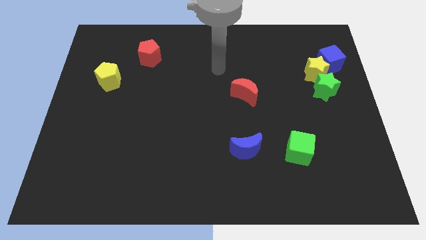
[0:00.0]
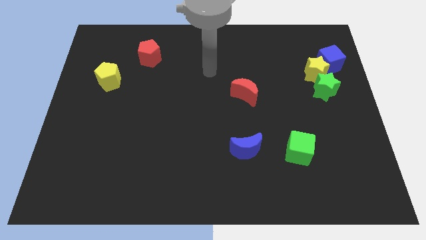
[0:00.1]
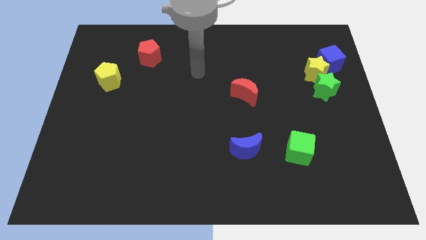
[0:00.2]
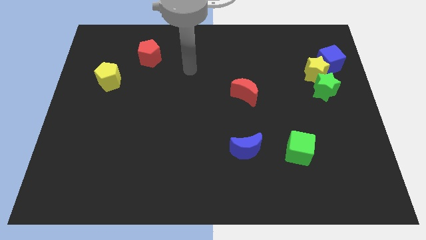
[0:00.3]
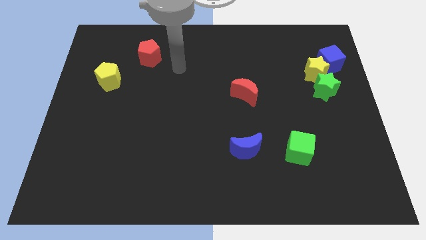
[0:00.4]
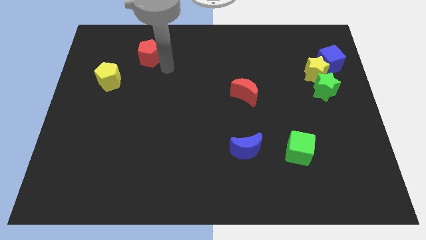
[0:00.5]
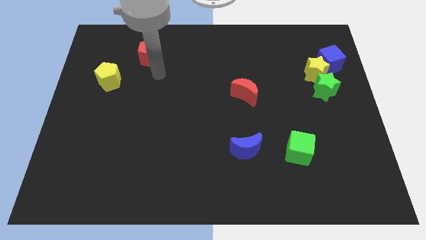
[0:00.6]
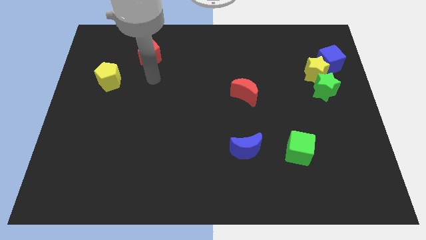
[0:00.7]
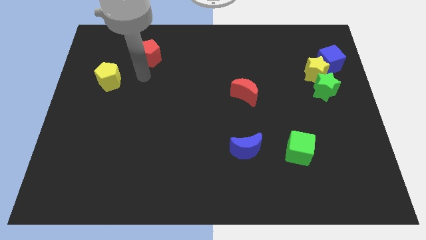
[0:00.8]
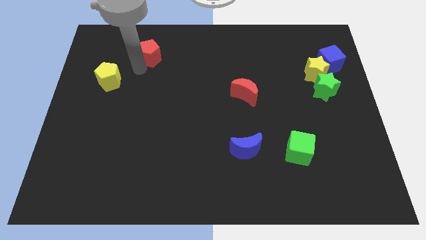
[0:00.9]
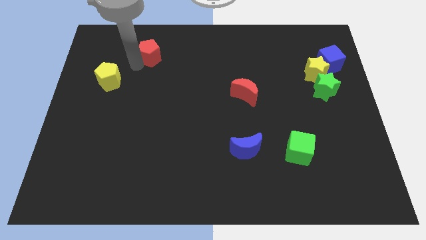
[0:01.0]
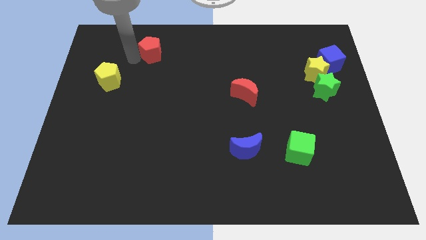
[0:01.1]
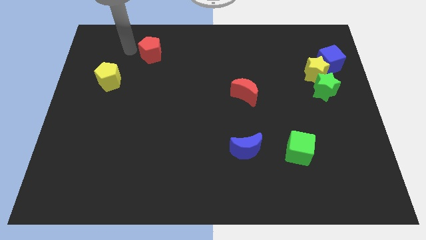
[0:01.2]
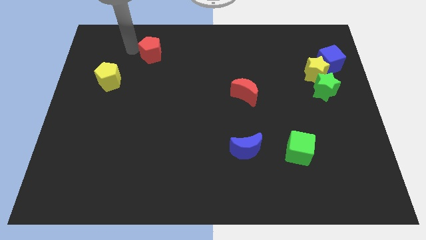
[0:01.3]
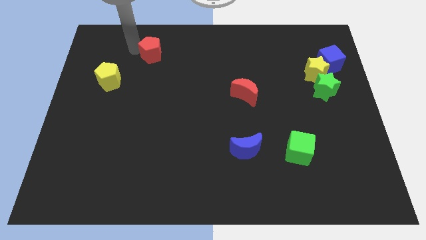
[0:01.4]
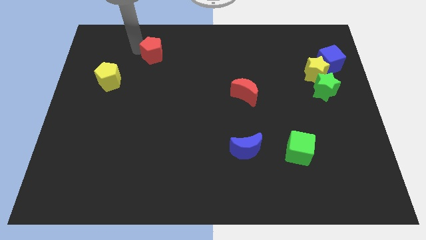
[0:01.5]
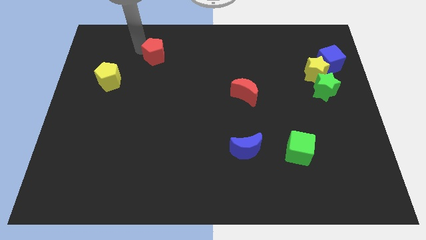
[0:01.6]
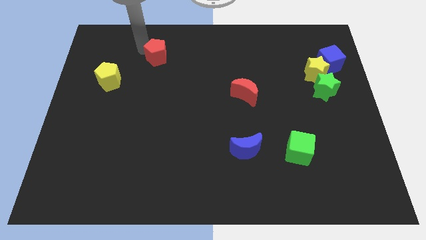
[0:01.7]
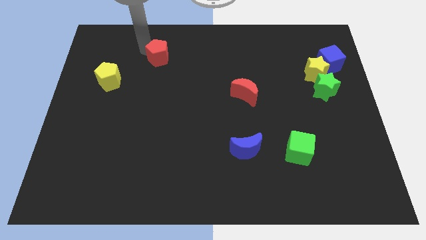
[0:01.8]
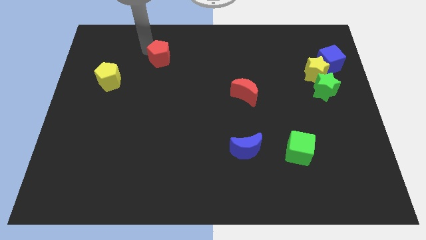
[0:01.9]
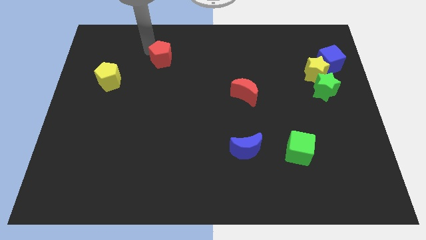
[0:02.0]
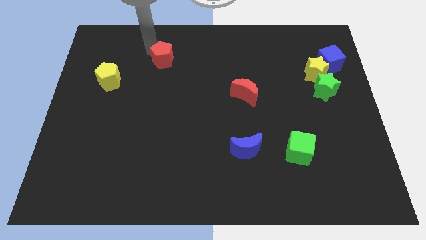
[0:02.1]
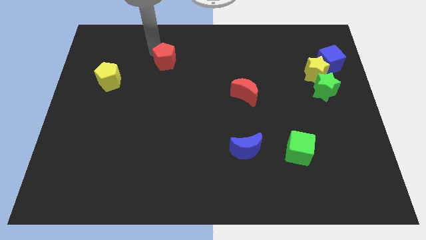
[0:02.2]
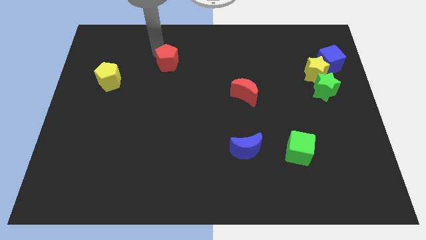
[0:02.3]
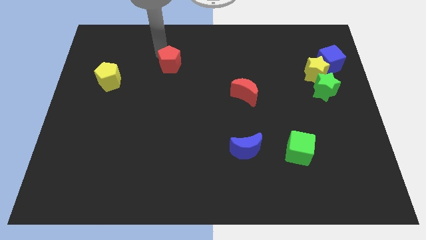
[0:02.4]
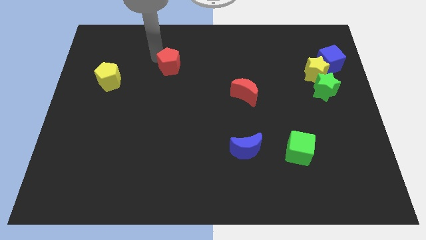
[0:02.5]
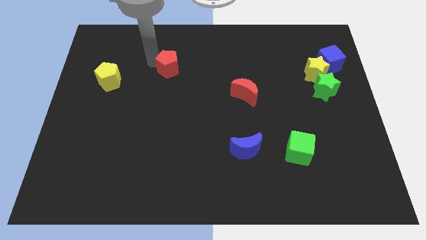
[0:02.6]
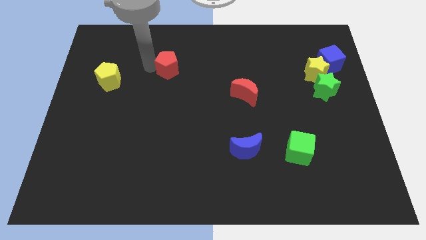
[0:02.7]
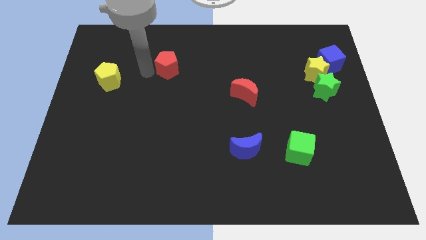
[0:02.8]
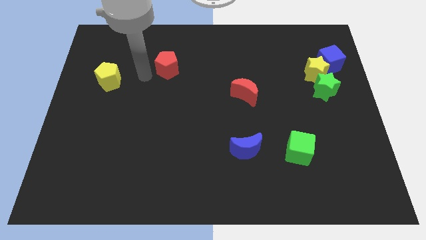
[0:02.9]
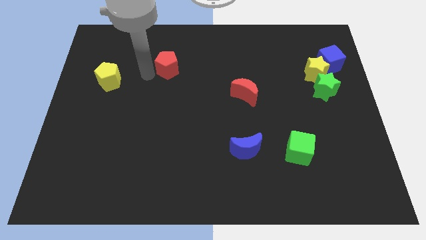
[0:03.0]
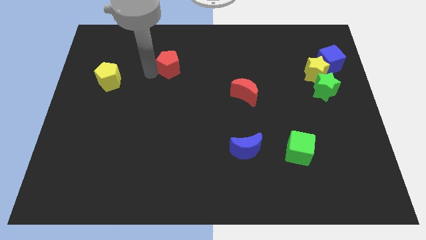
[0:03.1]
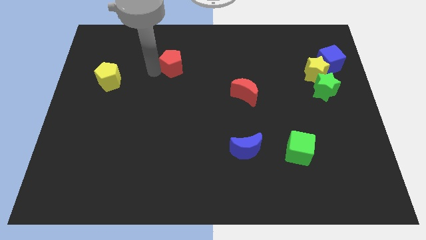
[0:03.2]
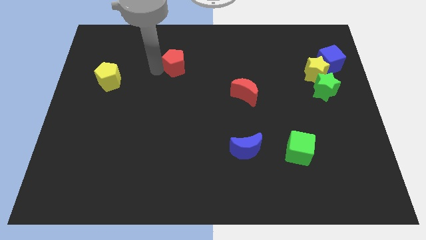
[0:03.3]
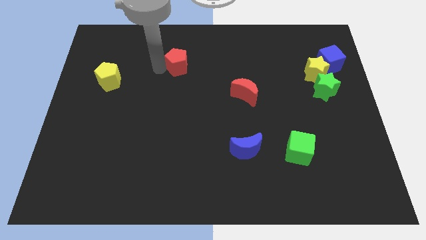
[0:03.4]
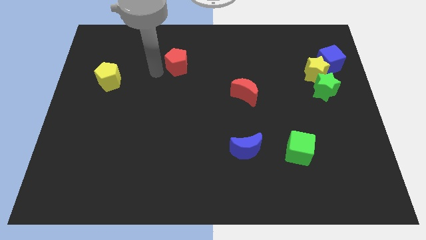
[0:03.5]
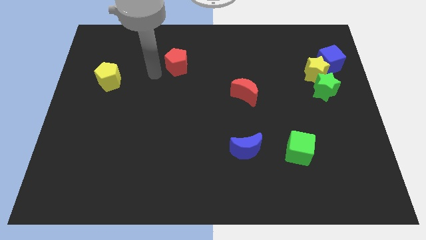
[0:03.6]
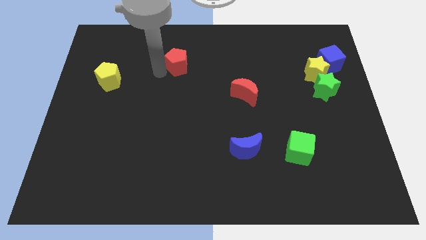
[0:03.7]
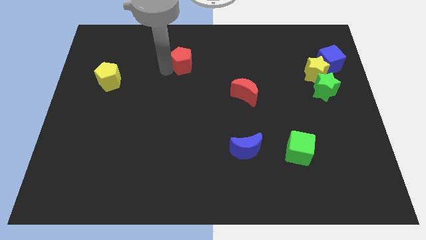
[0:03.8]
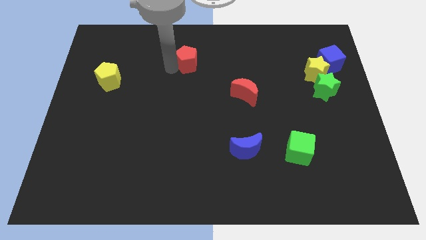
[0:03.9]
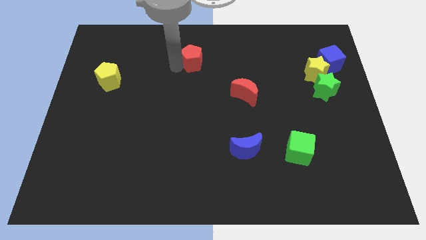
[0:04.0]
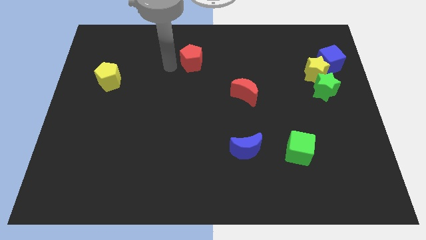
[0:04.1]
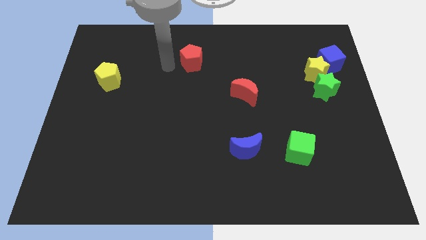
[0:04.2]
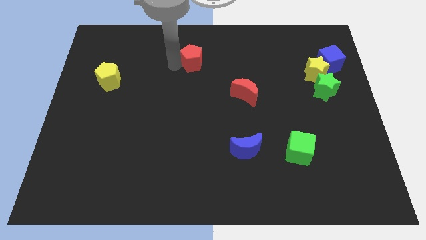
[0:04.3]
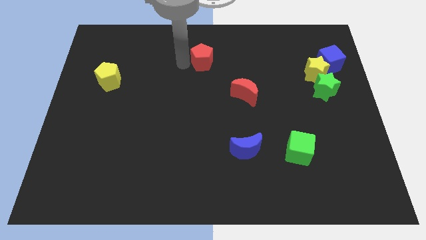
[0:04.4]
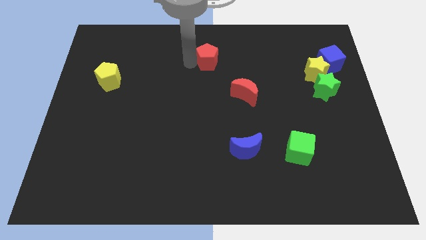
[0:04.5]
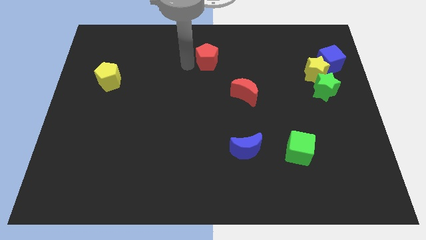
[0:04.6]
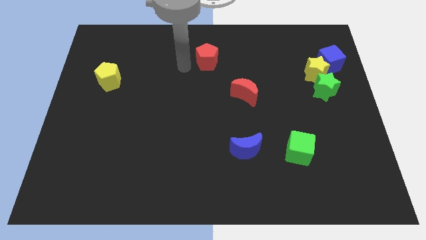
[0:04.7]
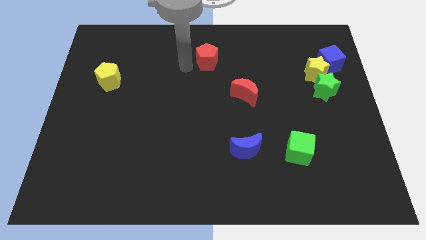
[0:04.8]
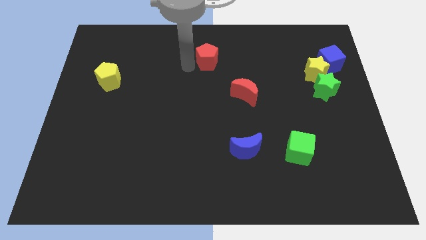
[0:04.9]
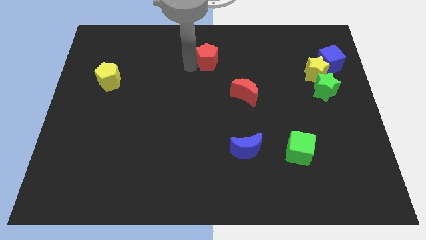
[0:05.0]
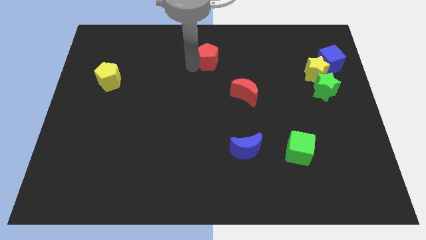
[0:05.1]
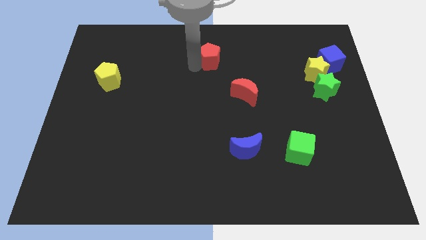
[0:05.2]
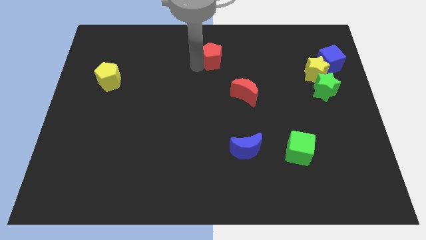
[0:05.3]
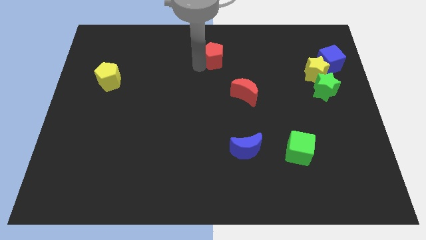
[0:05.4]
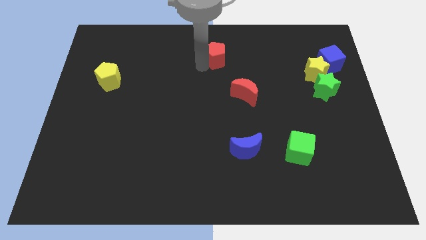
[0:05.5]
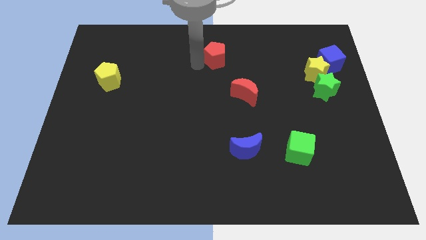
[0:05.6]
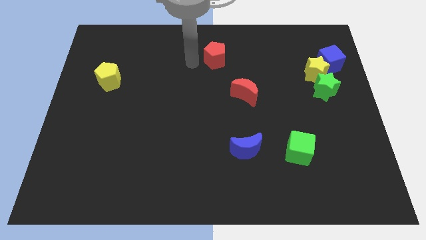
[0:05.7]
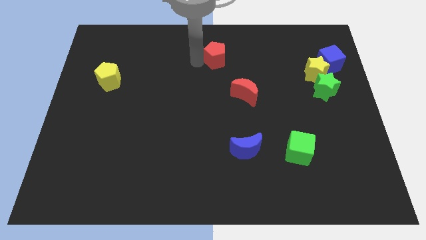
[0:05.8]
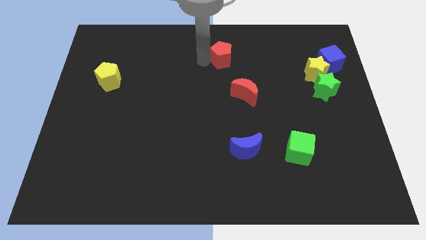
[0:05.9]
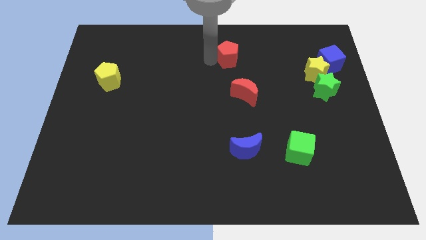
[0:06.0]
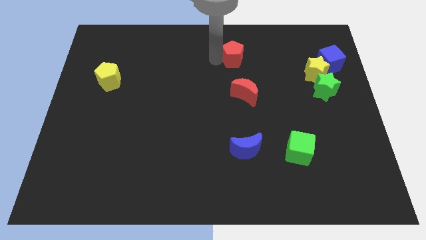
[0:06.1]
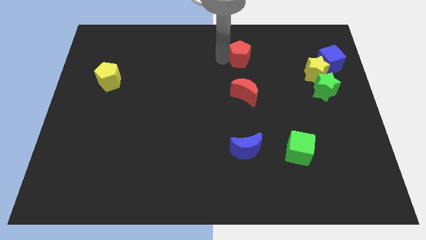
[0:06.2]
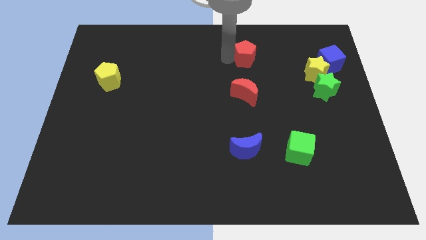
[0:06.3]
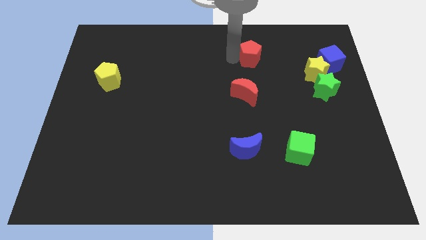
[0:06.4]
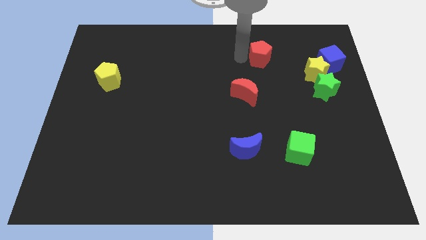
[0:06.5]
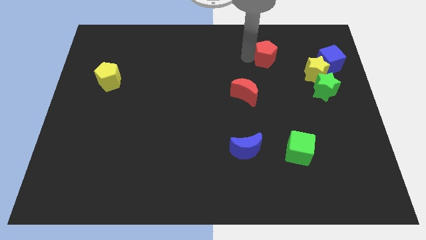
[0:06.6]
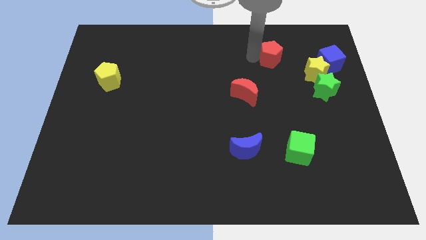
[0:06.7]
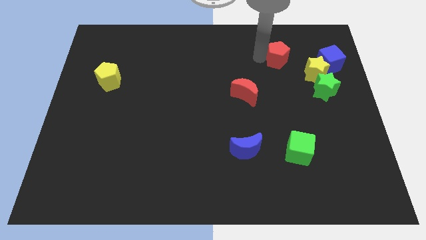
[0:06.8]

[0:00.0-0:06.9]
push the red pentagon diagonally up and to the left of the yellow star

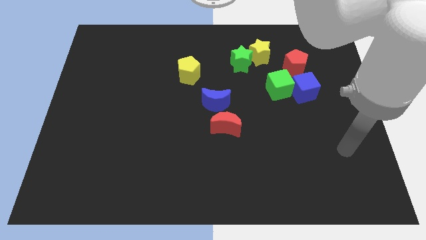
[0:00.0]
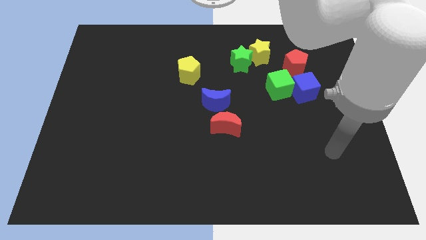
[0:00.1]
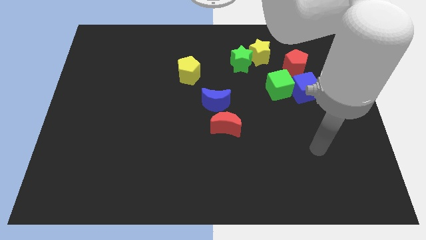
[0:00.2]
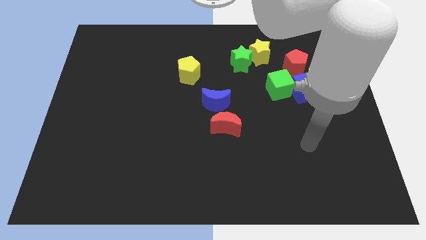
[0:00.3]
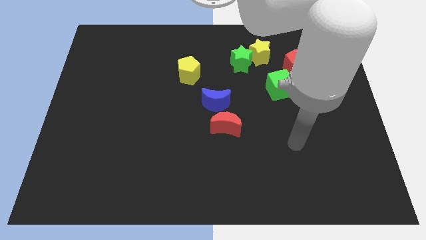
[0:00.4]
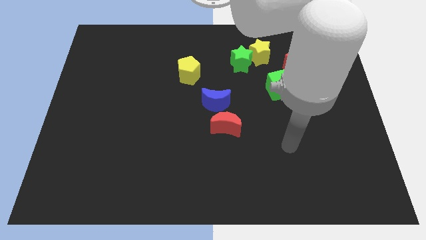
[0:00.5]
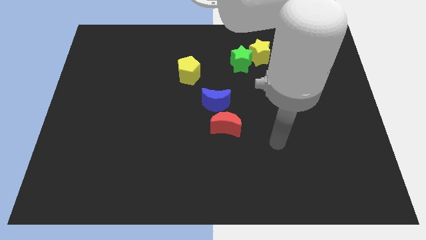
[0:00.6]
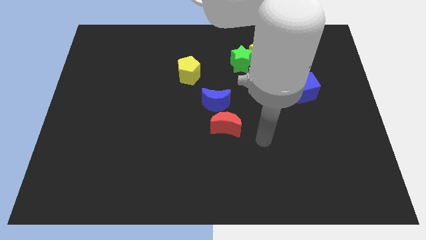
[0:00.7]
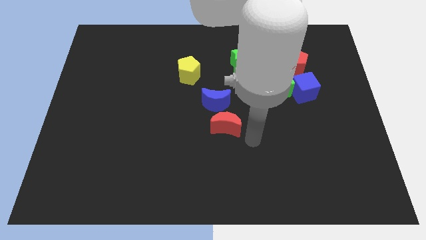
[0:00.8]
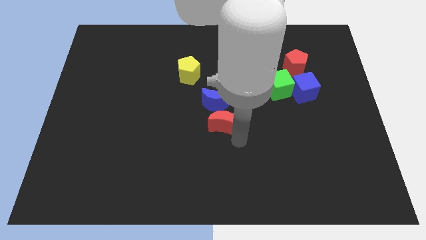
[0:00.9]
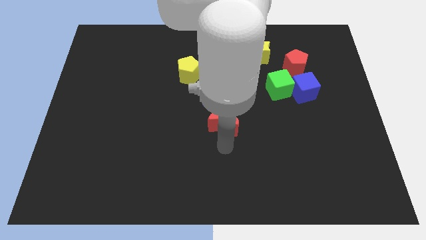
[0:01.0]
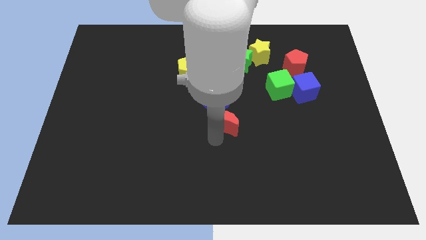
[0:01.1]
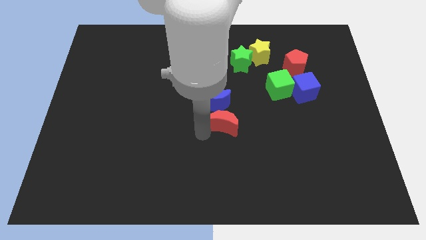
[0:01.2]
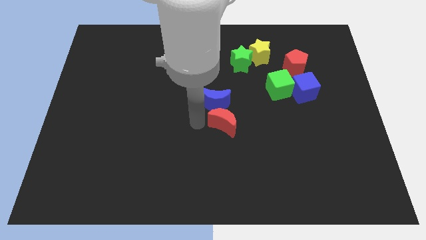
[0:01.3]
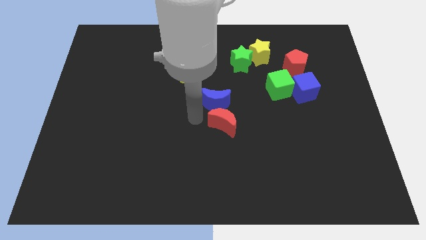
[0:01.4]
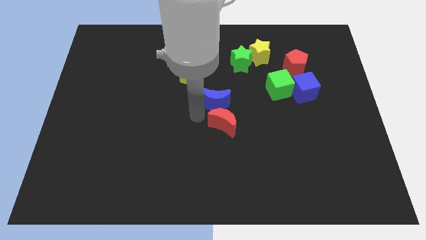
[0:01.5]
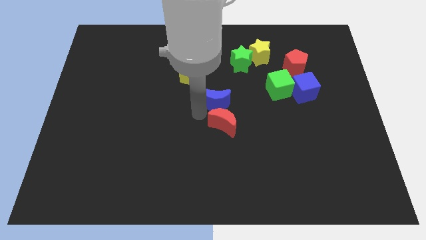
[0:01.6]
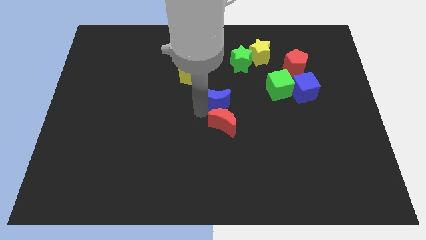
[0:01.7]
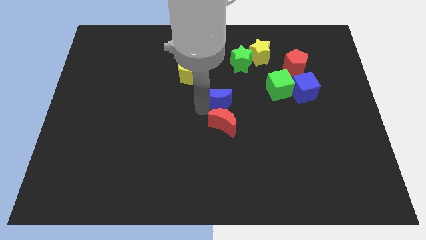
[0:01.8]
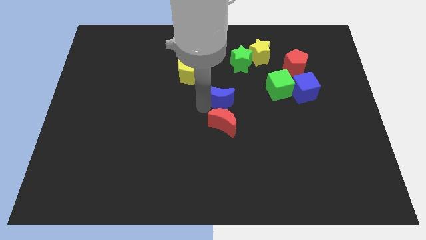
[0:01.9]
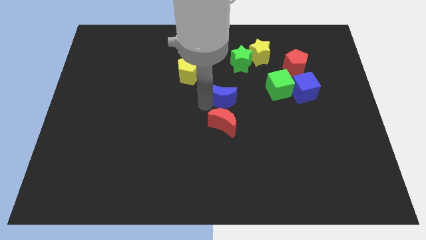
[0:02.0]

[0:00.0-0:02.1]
slide the blue moon left of the green cube
